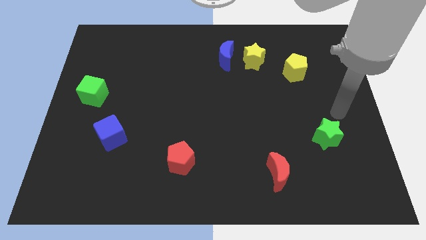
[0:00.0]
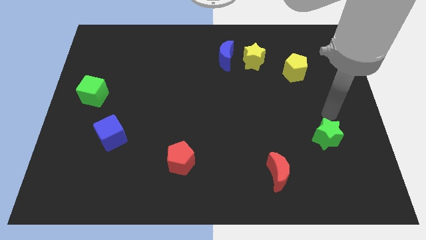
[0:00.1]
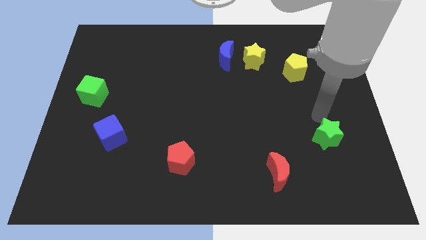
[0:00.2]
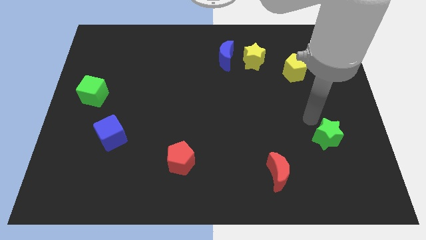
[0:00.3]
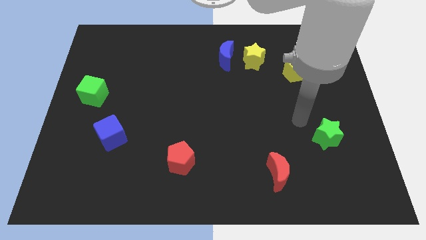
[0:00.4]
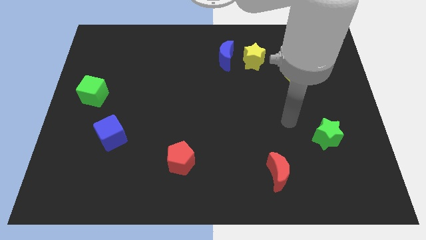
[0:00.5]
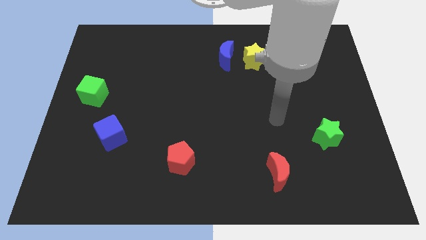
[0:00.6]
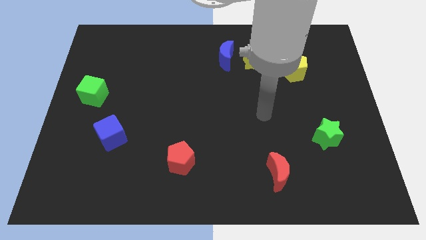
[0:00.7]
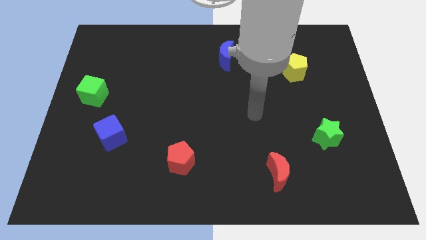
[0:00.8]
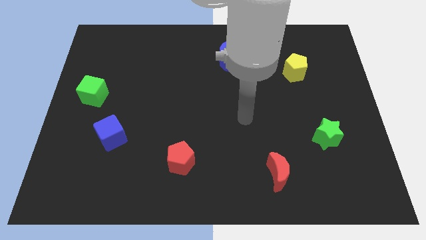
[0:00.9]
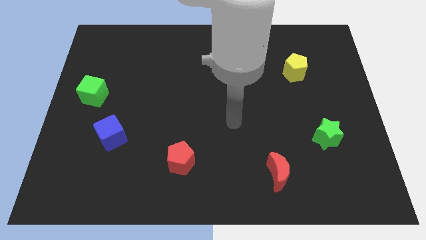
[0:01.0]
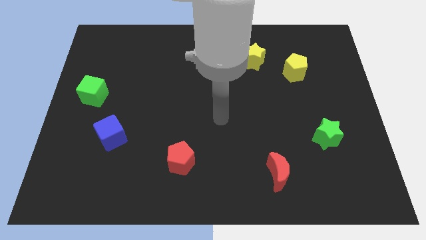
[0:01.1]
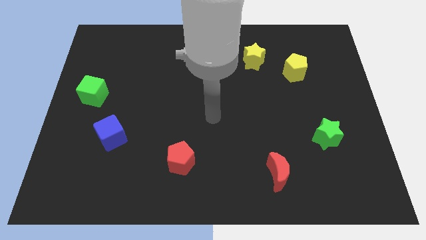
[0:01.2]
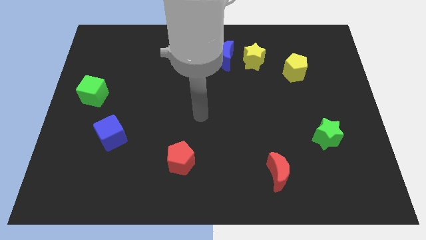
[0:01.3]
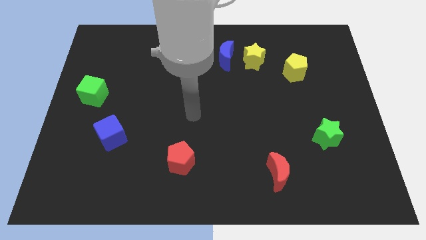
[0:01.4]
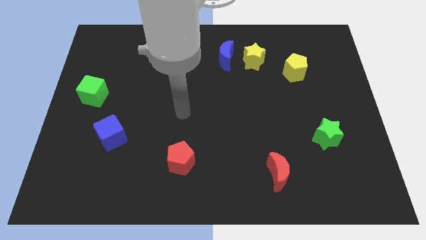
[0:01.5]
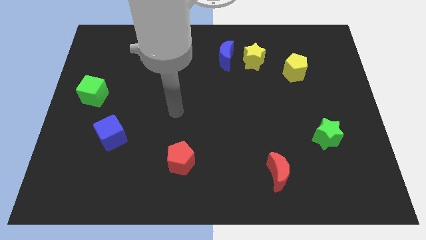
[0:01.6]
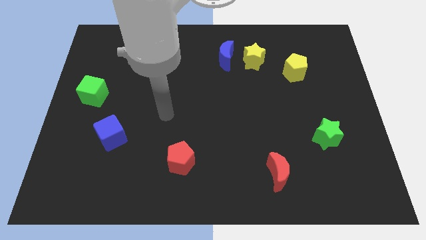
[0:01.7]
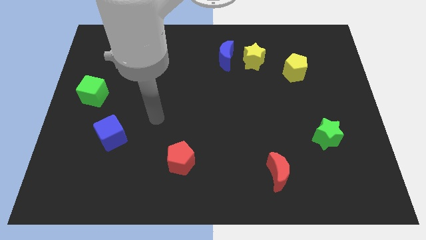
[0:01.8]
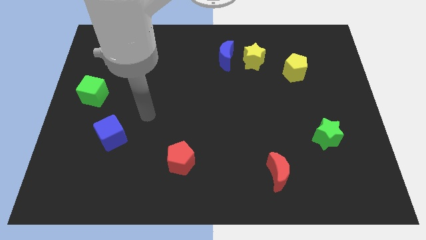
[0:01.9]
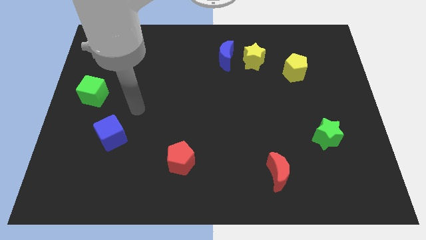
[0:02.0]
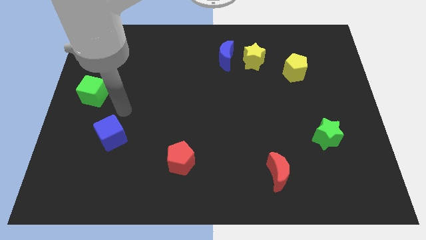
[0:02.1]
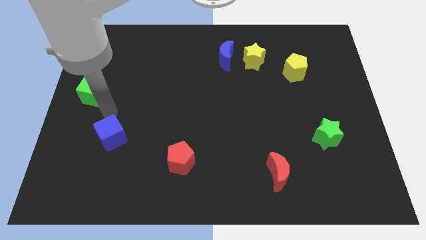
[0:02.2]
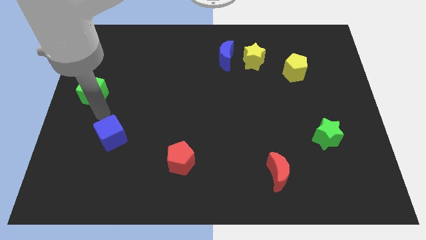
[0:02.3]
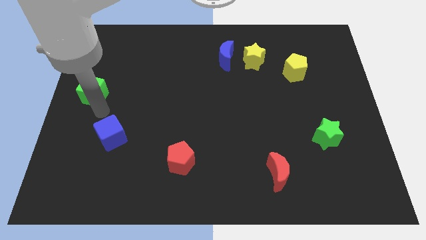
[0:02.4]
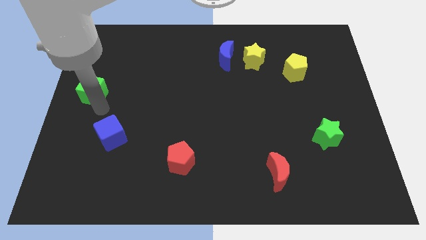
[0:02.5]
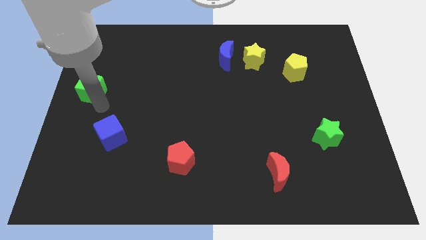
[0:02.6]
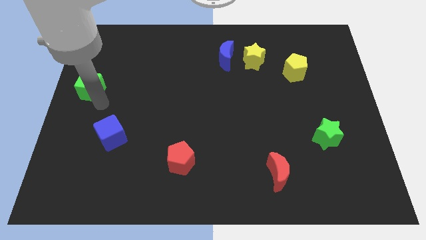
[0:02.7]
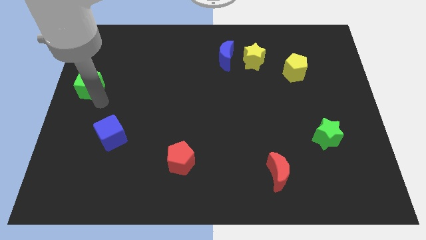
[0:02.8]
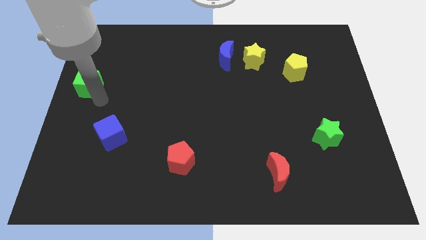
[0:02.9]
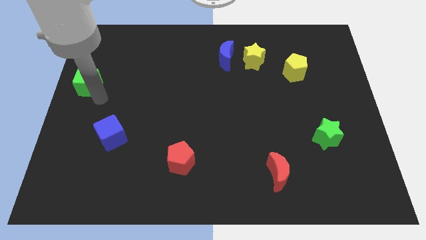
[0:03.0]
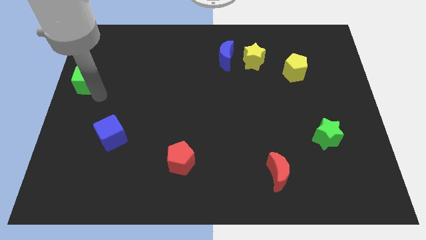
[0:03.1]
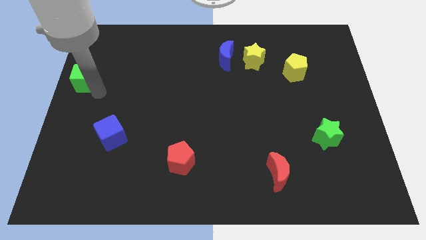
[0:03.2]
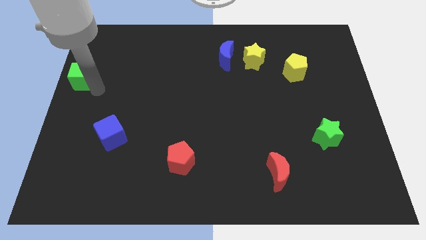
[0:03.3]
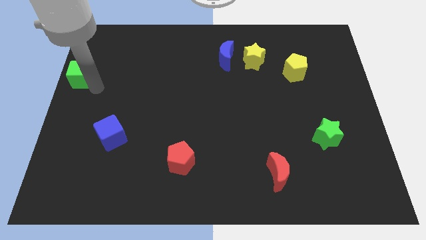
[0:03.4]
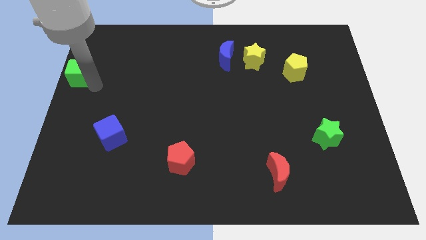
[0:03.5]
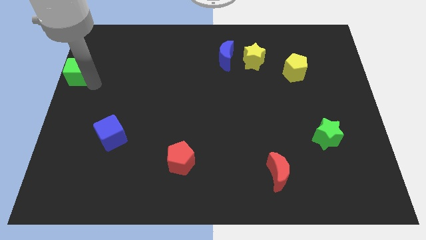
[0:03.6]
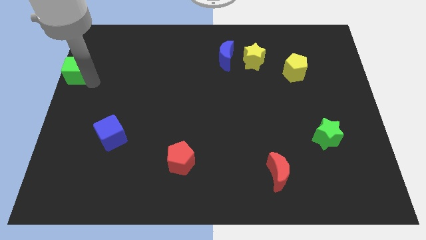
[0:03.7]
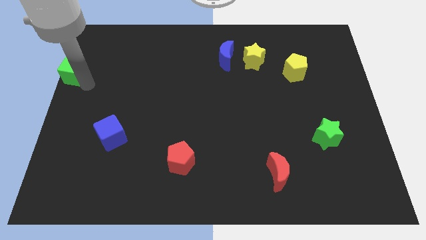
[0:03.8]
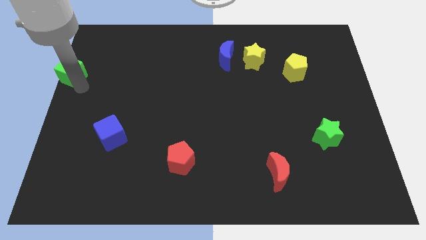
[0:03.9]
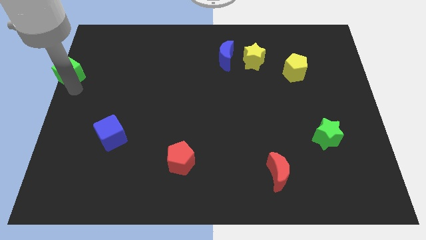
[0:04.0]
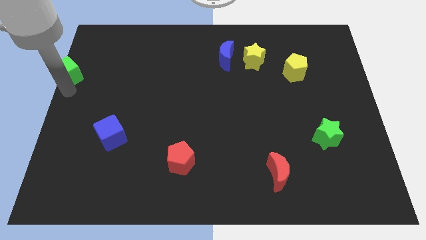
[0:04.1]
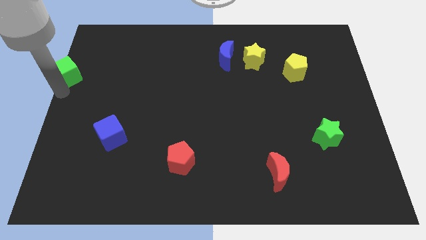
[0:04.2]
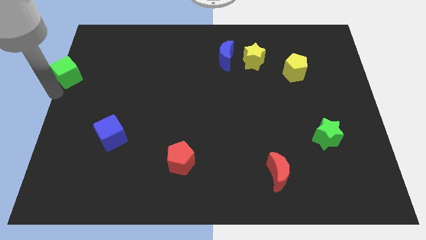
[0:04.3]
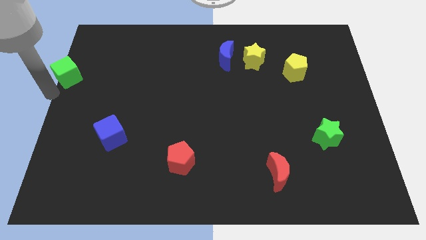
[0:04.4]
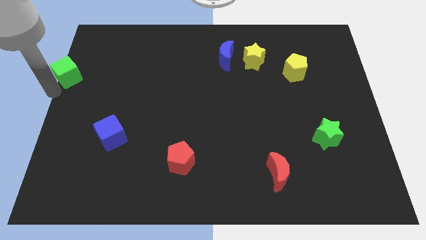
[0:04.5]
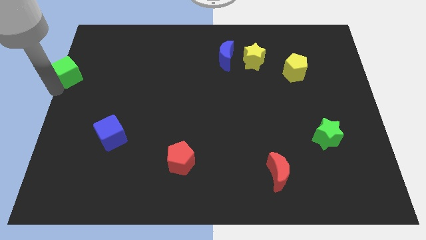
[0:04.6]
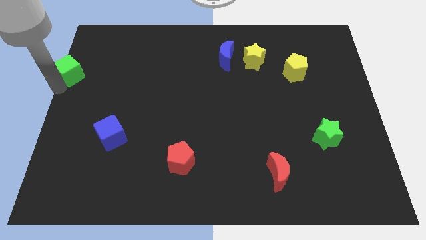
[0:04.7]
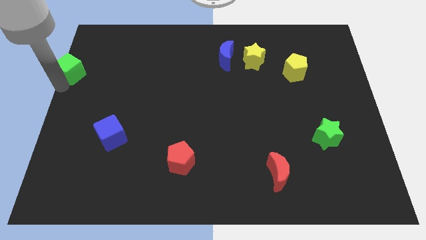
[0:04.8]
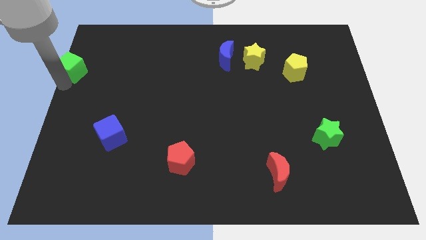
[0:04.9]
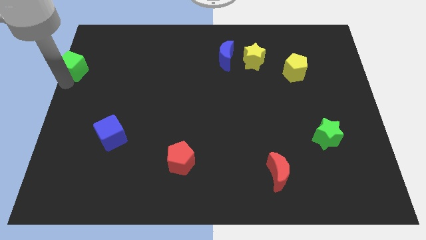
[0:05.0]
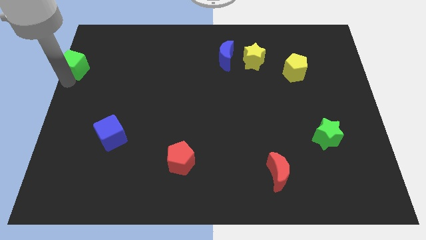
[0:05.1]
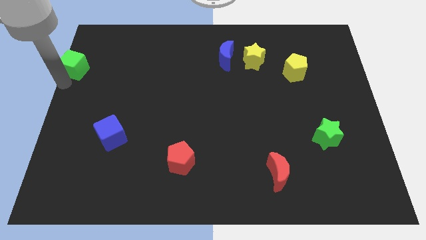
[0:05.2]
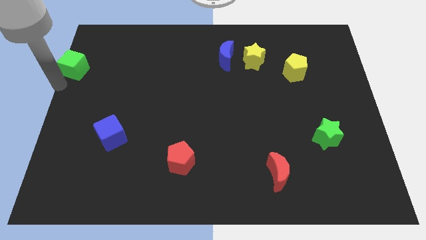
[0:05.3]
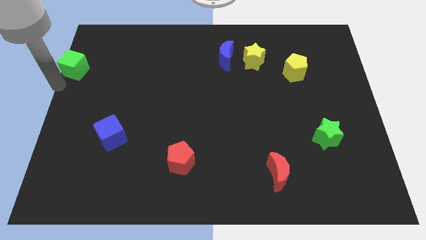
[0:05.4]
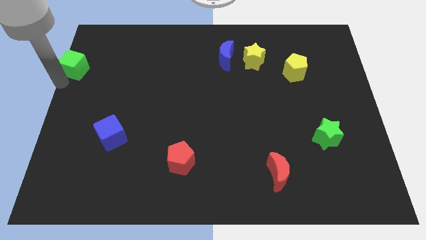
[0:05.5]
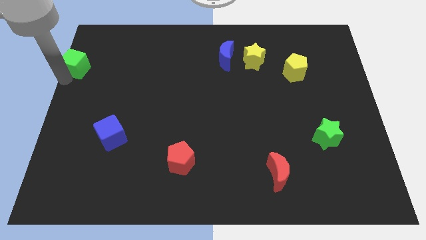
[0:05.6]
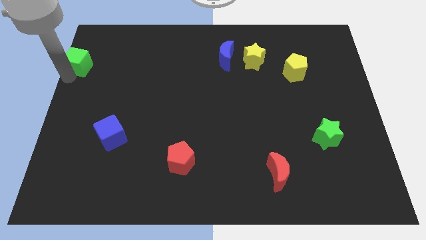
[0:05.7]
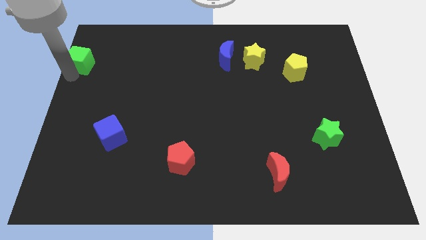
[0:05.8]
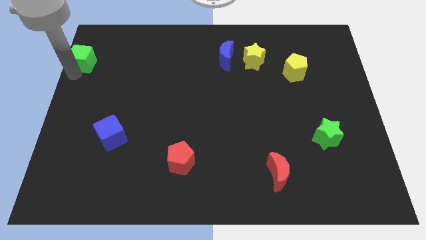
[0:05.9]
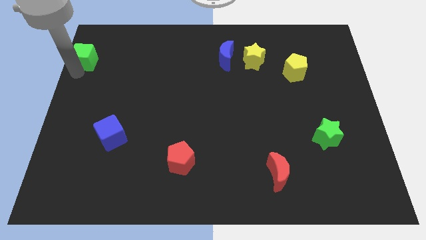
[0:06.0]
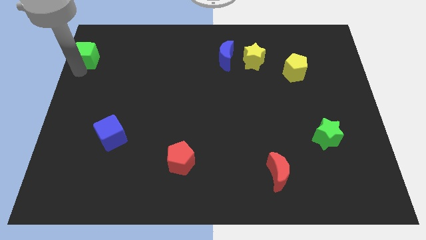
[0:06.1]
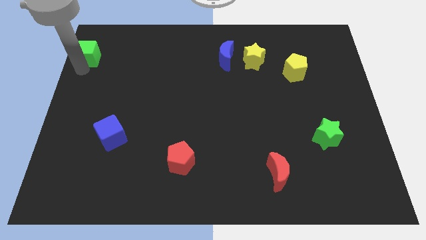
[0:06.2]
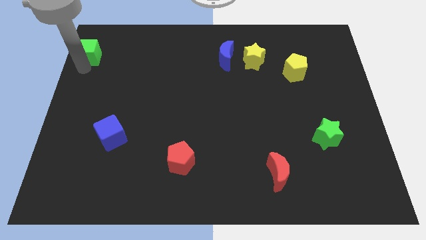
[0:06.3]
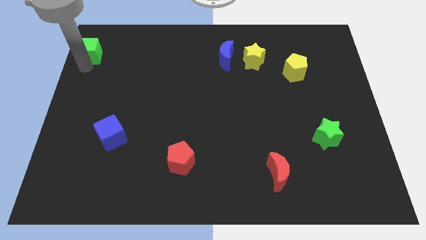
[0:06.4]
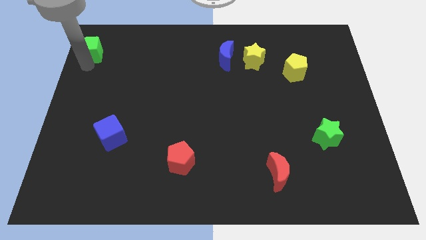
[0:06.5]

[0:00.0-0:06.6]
slide the green cube to the upper left corner
